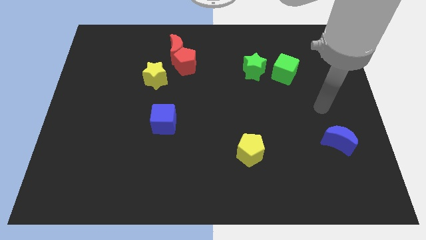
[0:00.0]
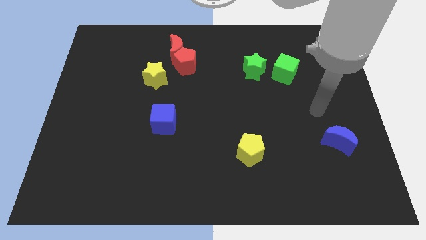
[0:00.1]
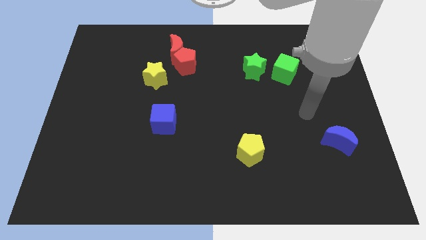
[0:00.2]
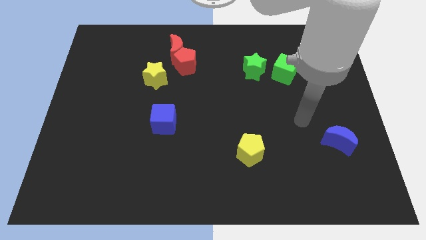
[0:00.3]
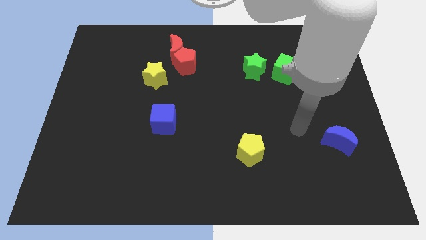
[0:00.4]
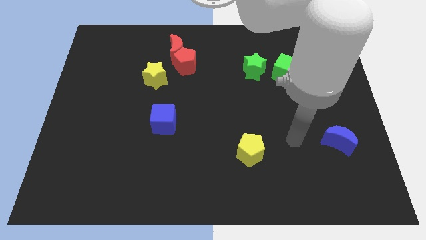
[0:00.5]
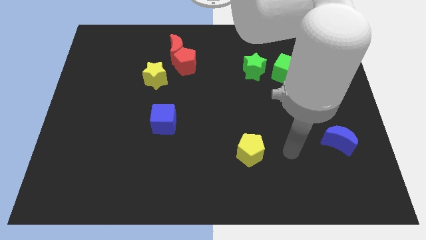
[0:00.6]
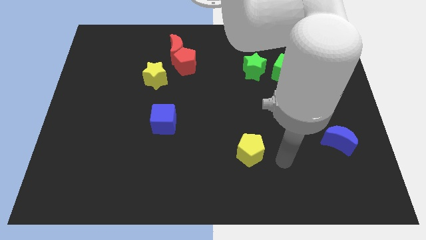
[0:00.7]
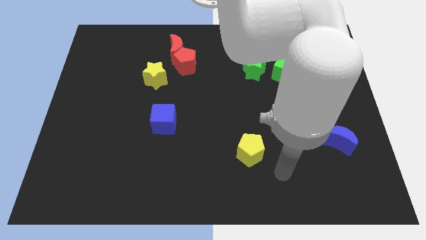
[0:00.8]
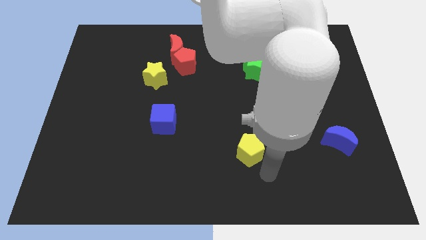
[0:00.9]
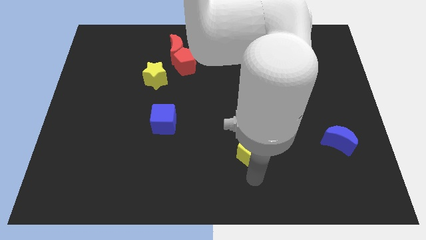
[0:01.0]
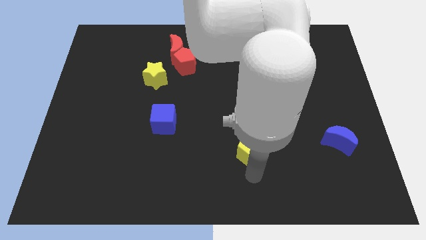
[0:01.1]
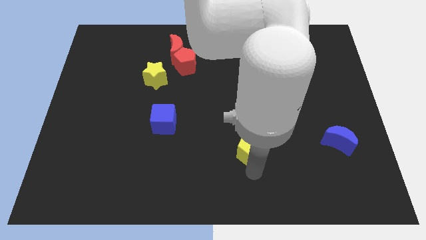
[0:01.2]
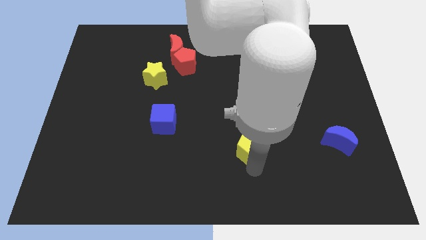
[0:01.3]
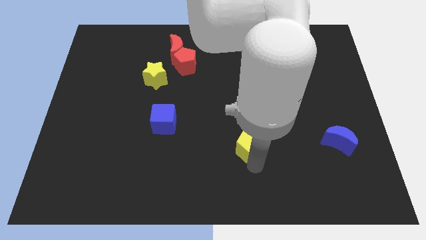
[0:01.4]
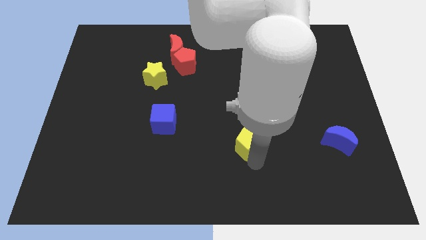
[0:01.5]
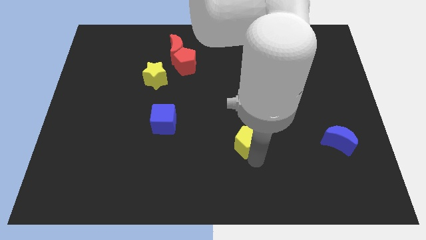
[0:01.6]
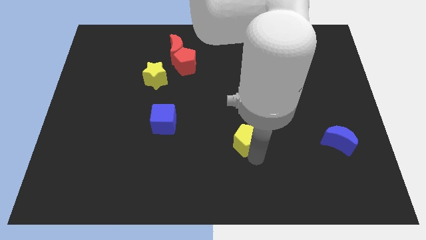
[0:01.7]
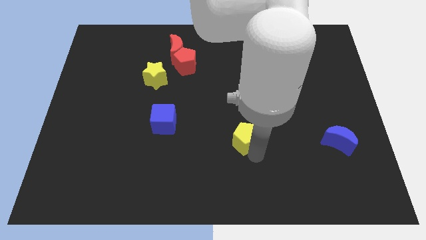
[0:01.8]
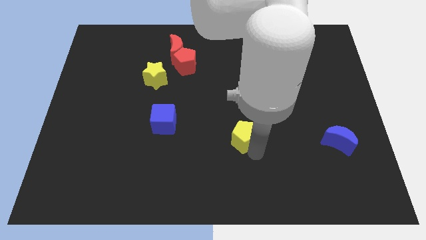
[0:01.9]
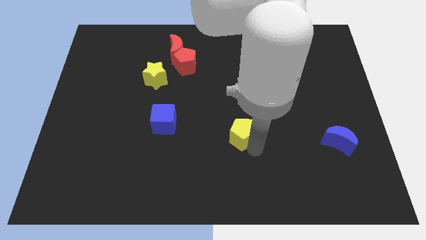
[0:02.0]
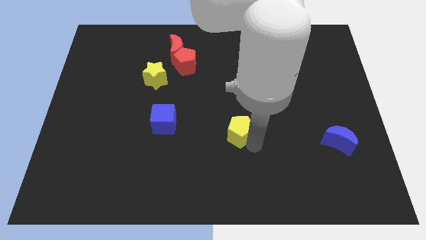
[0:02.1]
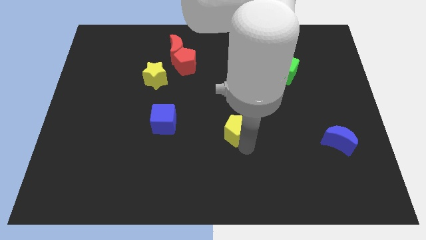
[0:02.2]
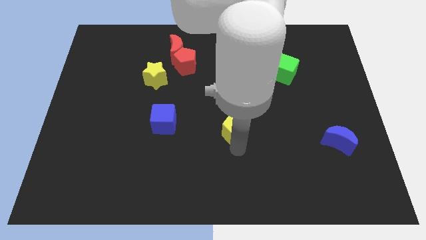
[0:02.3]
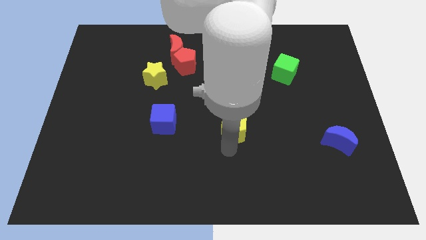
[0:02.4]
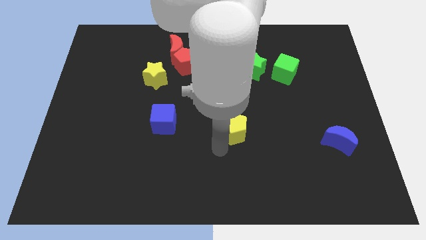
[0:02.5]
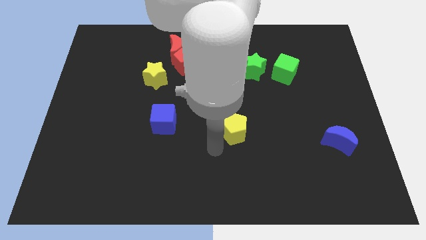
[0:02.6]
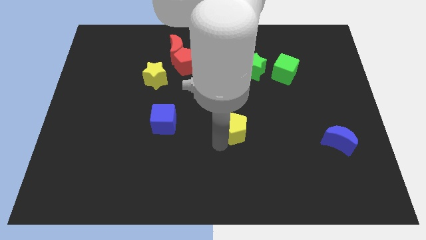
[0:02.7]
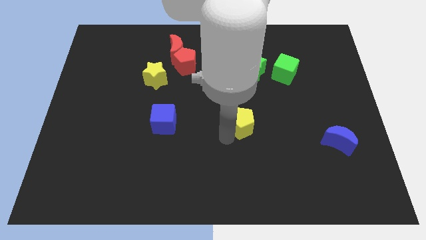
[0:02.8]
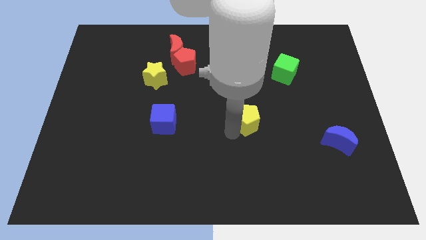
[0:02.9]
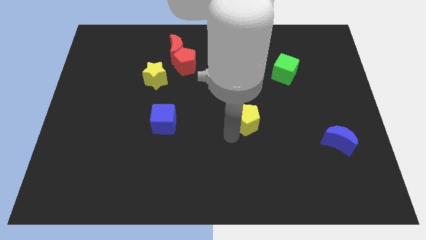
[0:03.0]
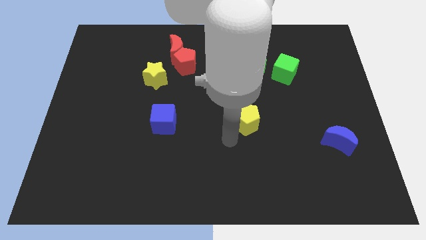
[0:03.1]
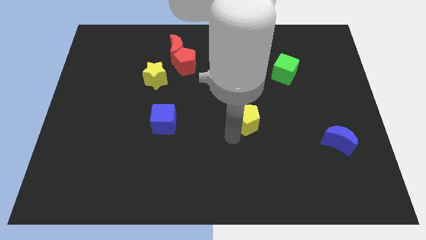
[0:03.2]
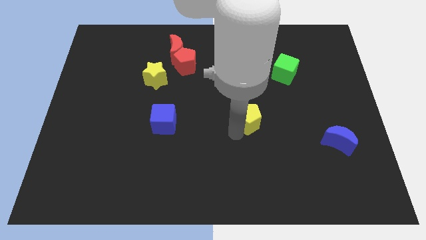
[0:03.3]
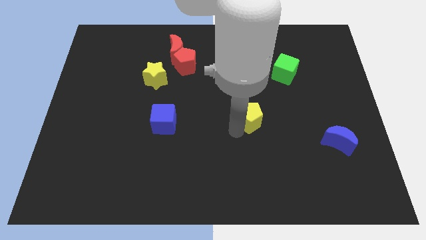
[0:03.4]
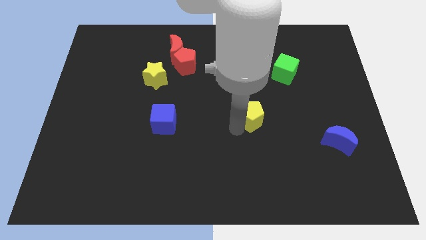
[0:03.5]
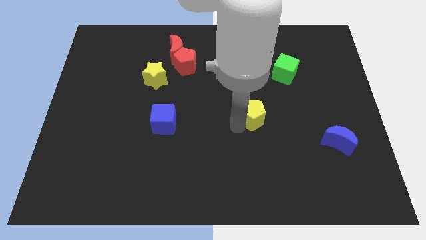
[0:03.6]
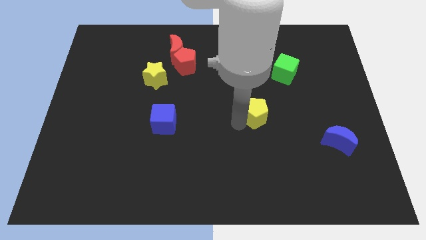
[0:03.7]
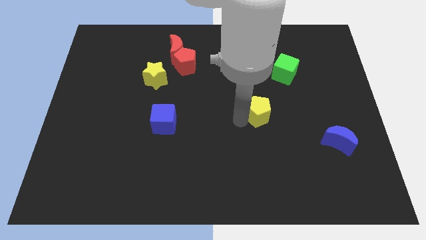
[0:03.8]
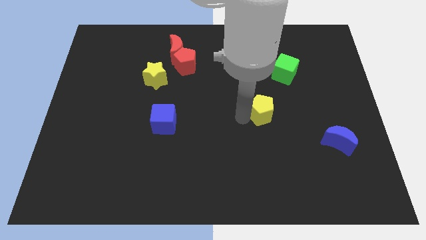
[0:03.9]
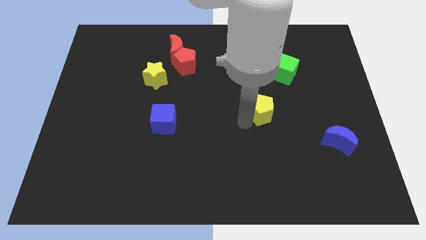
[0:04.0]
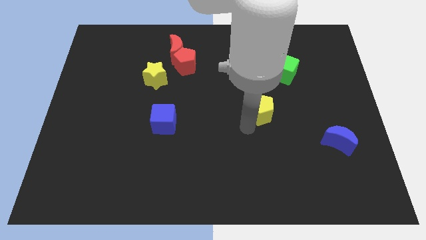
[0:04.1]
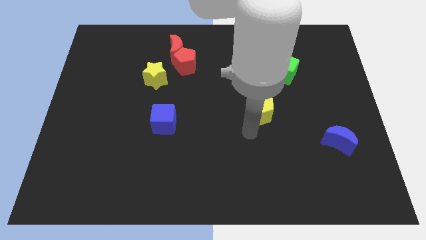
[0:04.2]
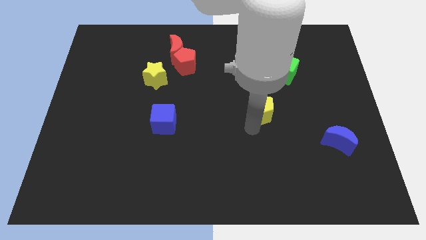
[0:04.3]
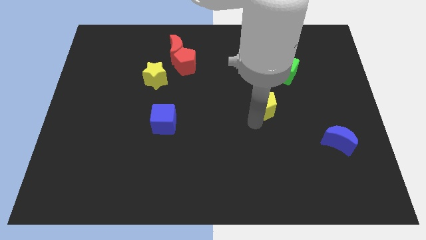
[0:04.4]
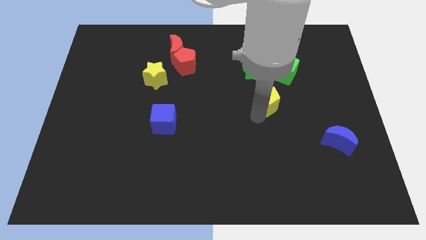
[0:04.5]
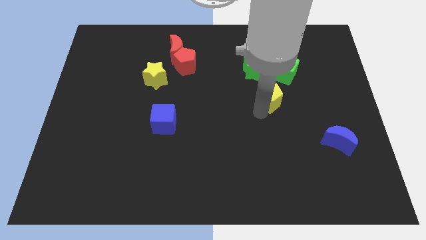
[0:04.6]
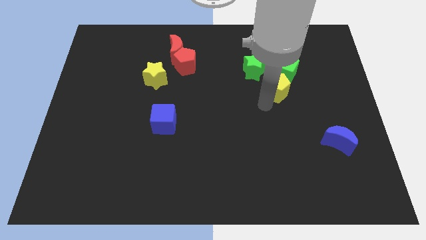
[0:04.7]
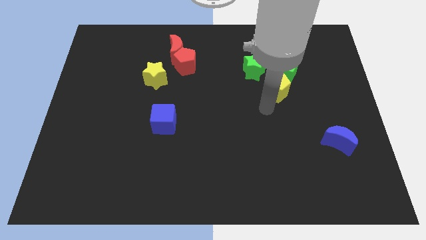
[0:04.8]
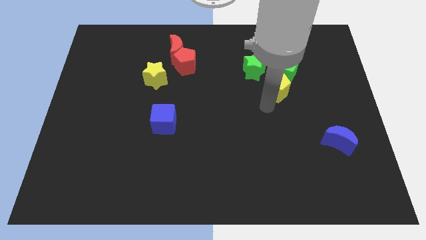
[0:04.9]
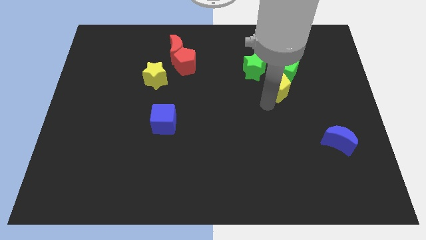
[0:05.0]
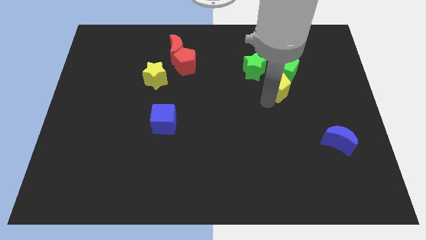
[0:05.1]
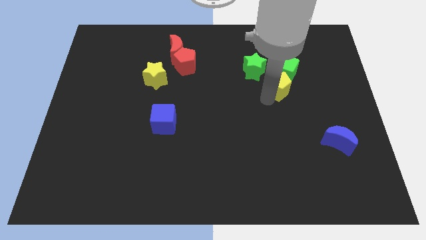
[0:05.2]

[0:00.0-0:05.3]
put the yellow pentagon to the green cube

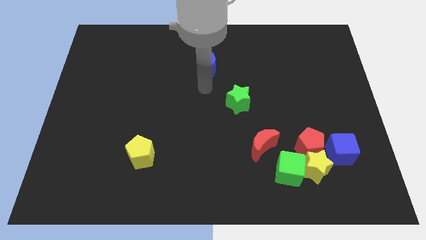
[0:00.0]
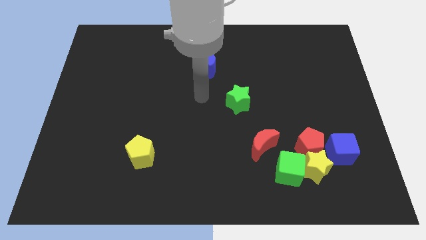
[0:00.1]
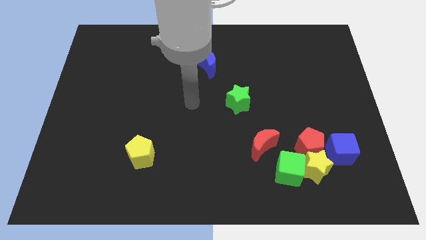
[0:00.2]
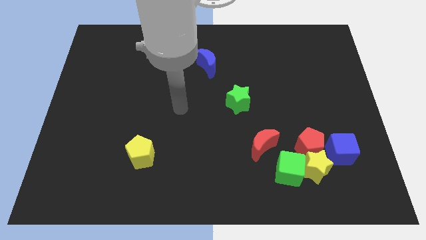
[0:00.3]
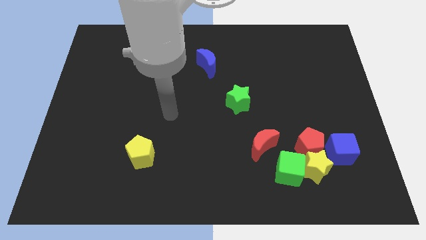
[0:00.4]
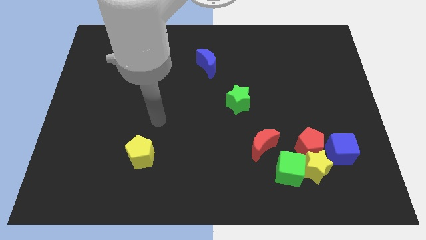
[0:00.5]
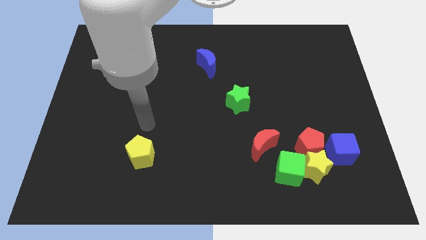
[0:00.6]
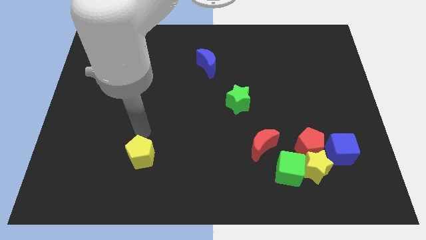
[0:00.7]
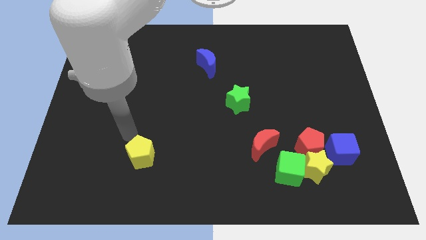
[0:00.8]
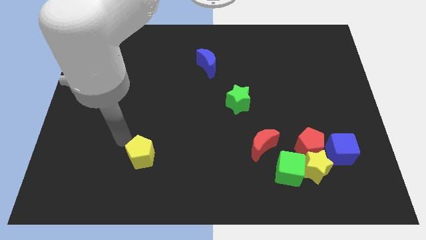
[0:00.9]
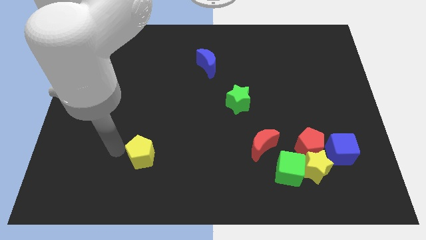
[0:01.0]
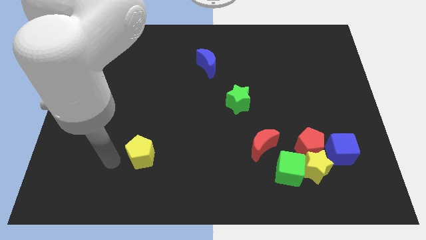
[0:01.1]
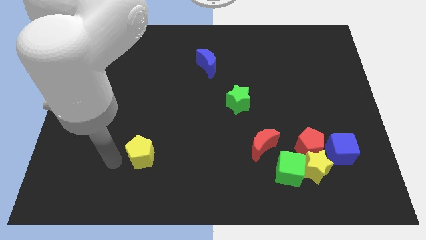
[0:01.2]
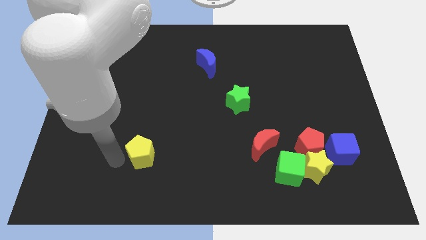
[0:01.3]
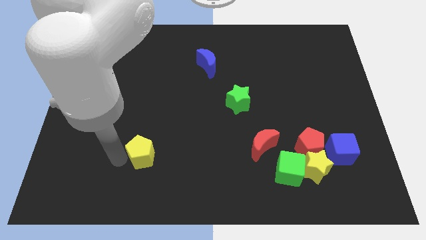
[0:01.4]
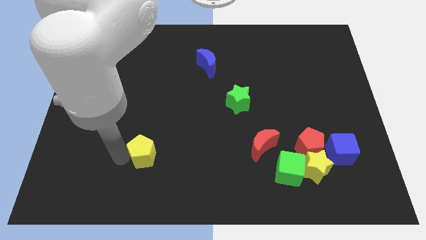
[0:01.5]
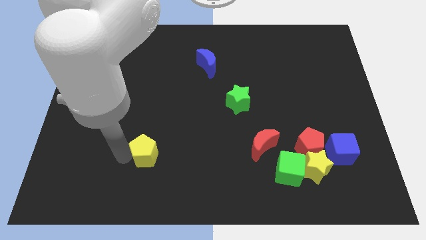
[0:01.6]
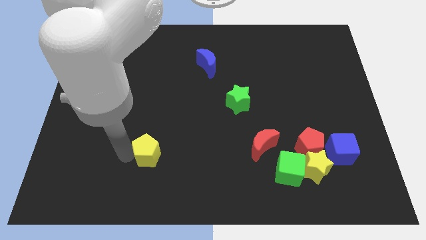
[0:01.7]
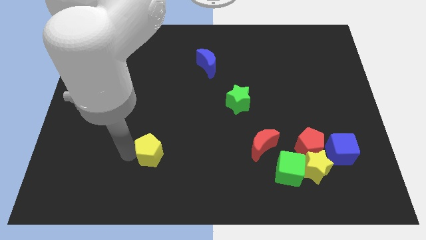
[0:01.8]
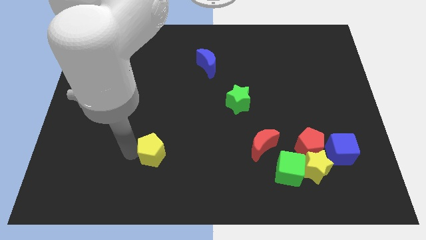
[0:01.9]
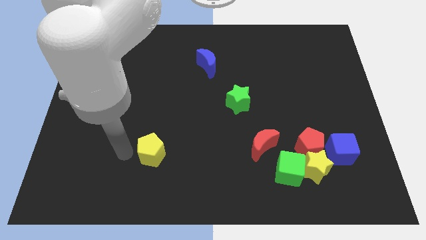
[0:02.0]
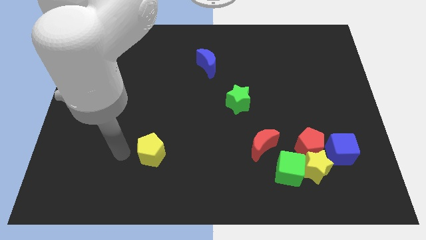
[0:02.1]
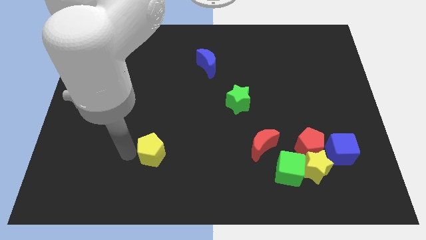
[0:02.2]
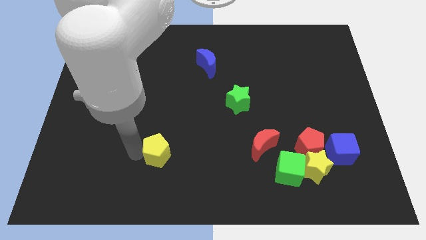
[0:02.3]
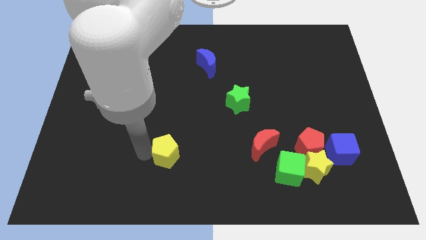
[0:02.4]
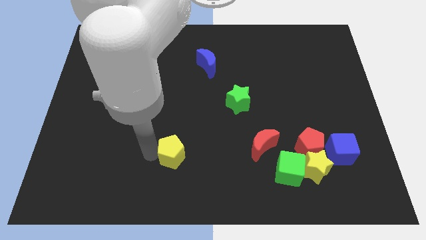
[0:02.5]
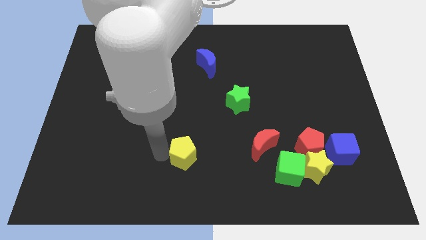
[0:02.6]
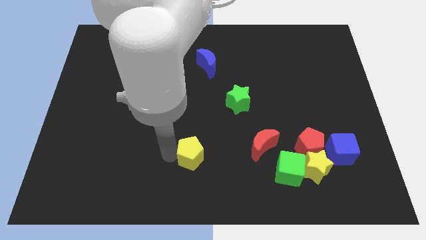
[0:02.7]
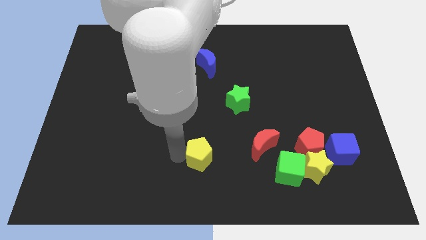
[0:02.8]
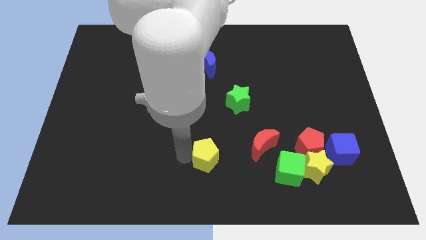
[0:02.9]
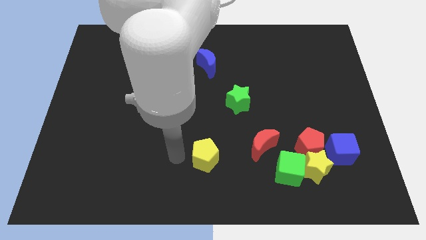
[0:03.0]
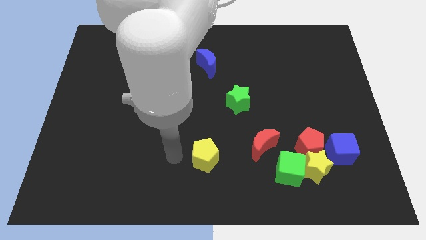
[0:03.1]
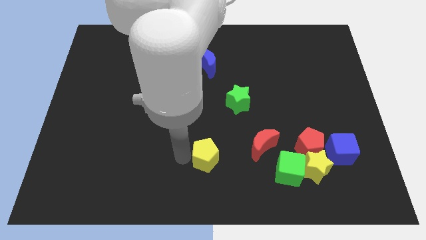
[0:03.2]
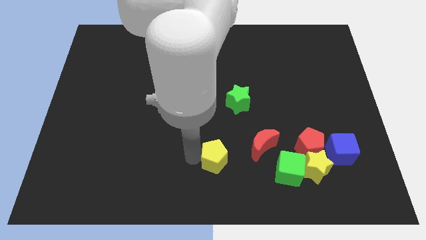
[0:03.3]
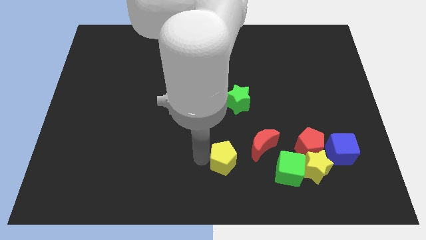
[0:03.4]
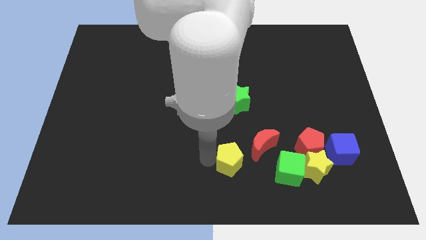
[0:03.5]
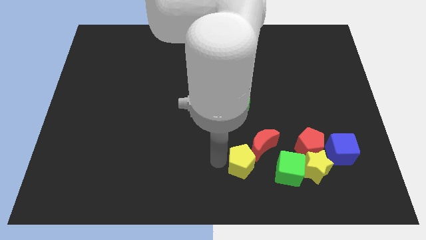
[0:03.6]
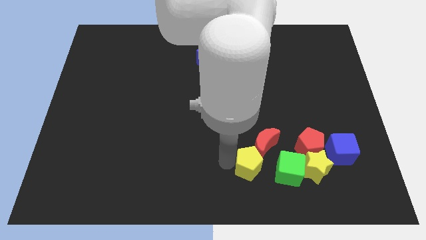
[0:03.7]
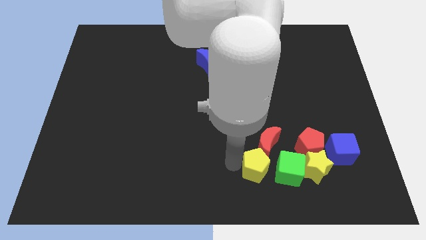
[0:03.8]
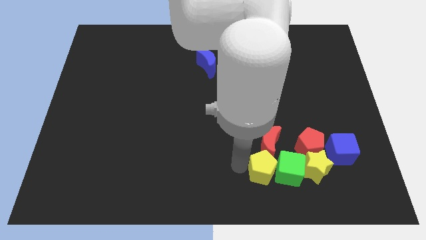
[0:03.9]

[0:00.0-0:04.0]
move the yellow pentagon next to the green cube
